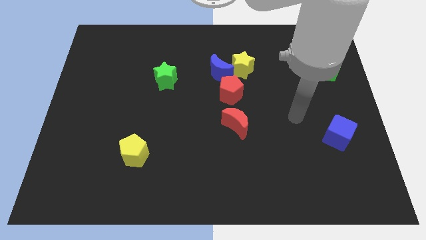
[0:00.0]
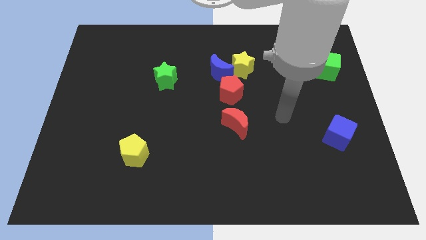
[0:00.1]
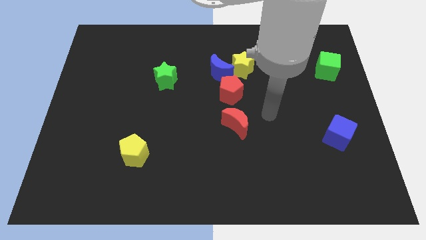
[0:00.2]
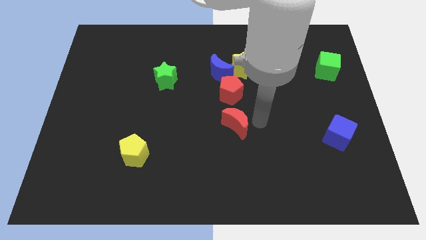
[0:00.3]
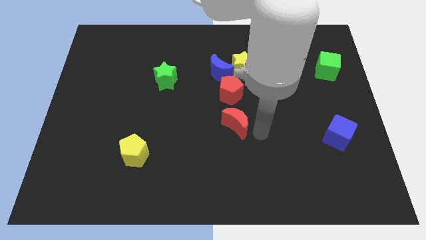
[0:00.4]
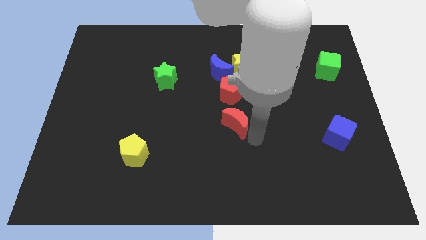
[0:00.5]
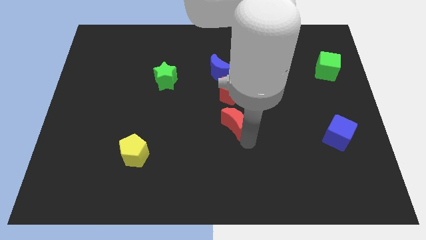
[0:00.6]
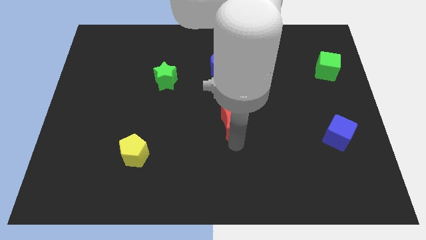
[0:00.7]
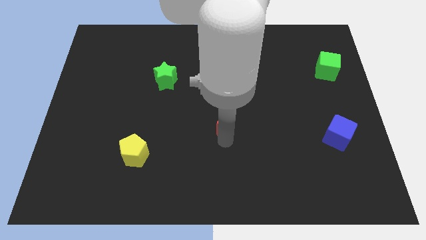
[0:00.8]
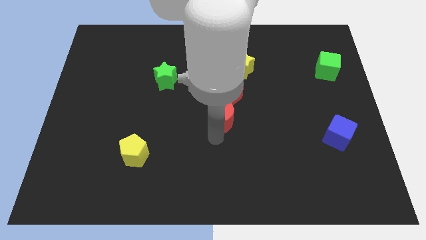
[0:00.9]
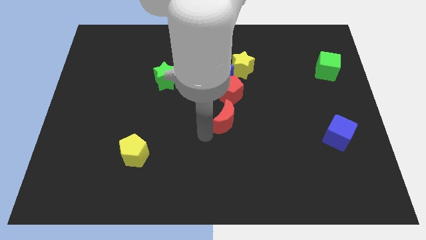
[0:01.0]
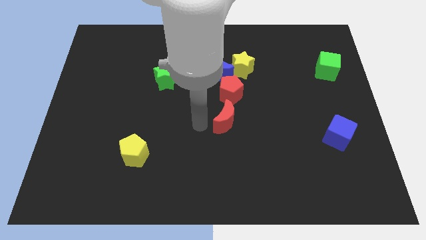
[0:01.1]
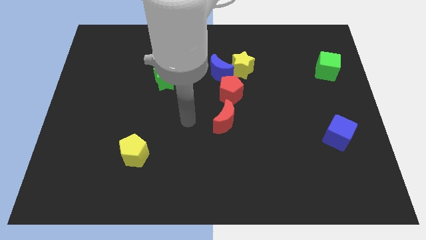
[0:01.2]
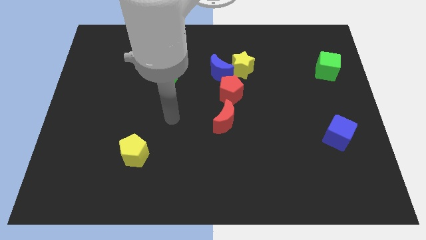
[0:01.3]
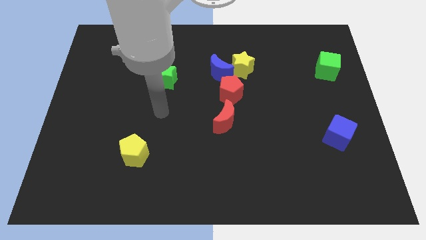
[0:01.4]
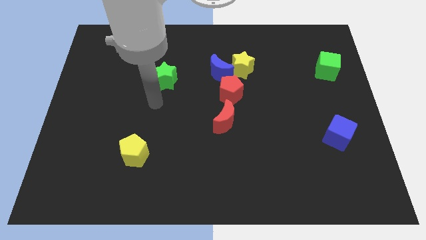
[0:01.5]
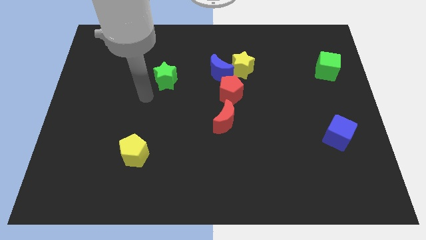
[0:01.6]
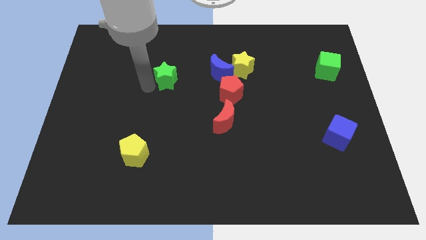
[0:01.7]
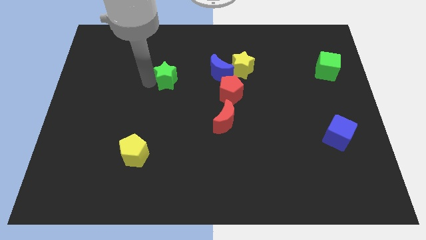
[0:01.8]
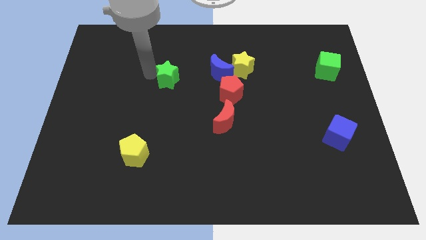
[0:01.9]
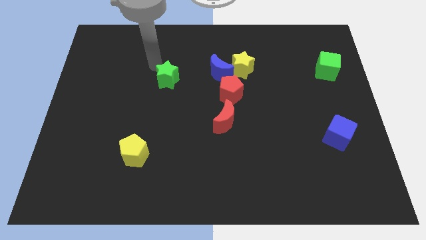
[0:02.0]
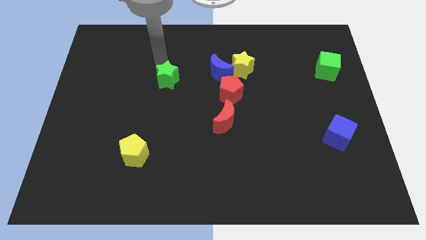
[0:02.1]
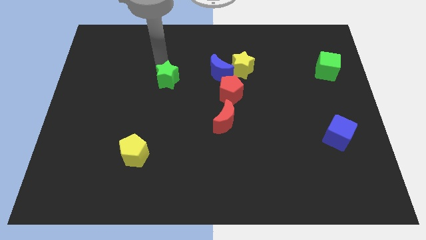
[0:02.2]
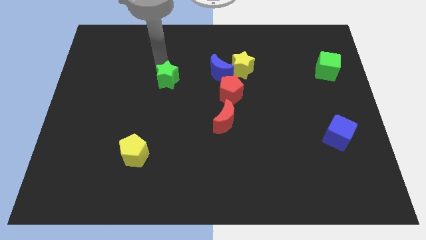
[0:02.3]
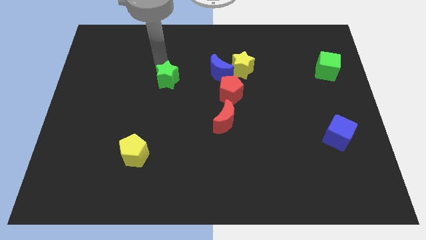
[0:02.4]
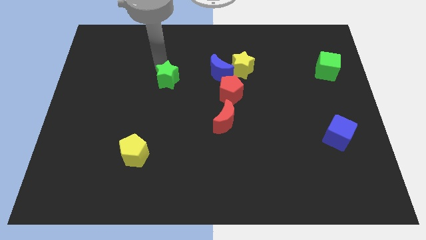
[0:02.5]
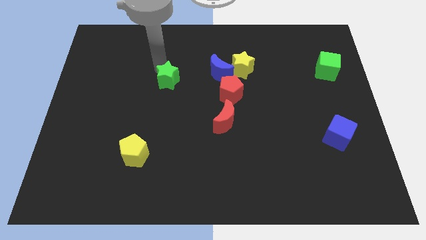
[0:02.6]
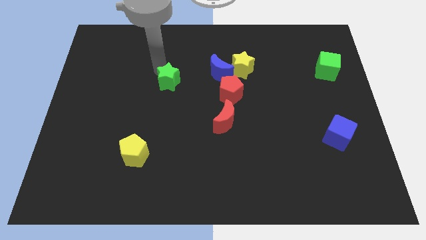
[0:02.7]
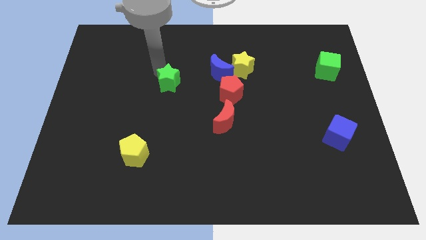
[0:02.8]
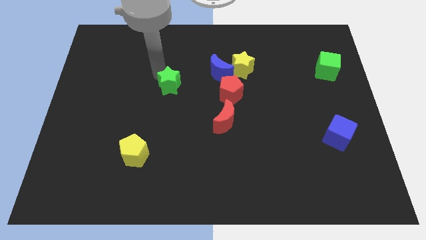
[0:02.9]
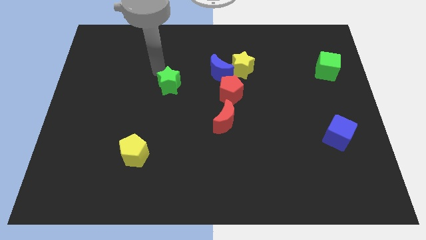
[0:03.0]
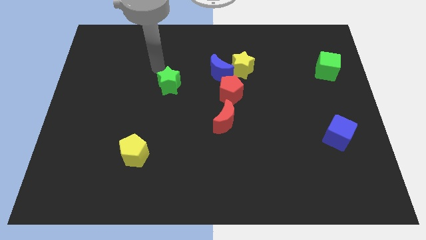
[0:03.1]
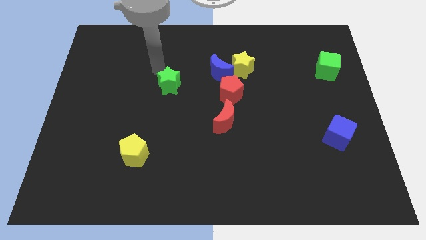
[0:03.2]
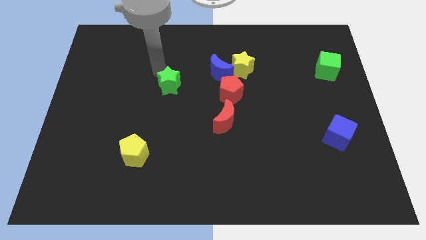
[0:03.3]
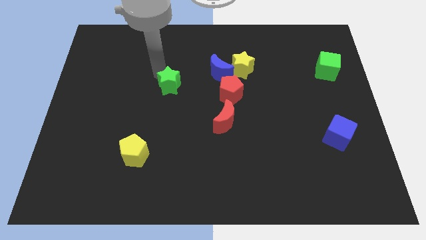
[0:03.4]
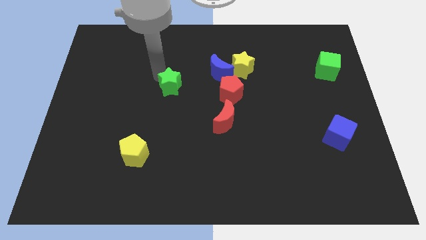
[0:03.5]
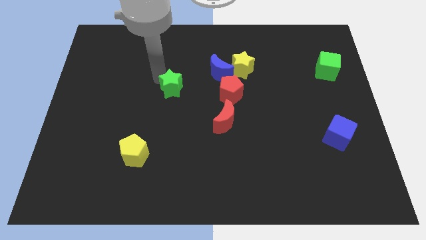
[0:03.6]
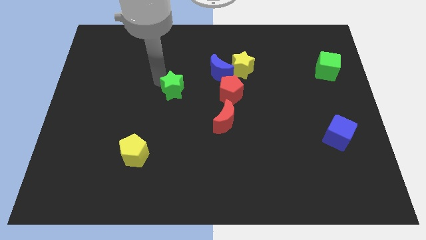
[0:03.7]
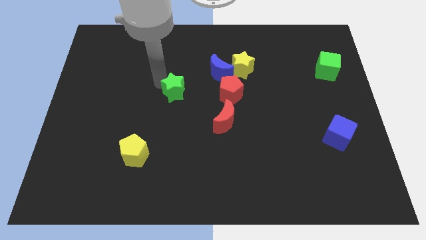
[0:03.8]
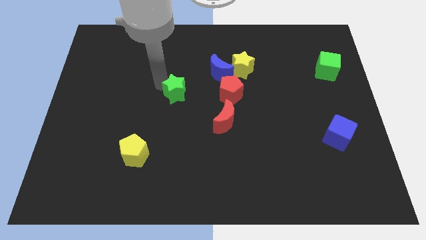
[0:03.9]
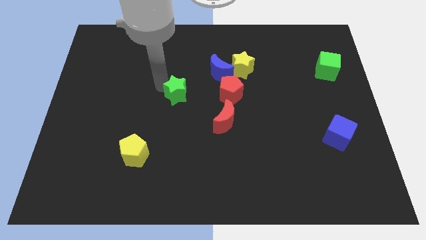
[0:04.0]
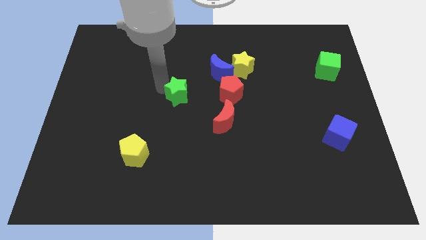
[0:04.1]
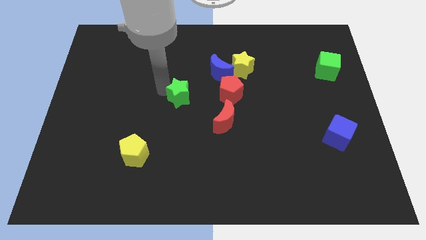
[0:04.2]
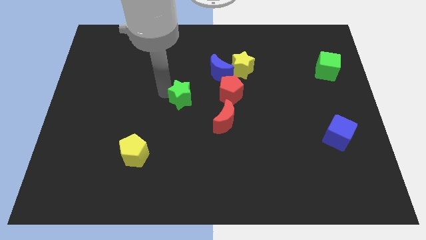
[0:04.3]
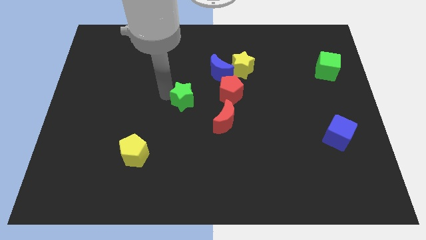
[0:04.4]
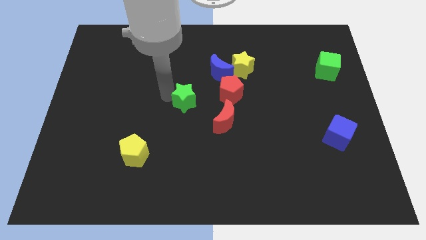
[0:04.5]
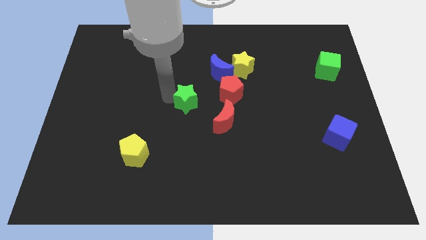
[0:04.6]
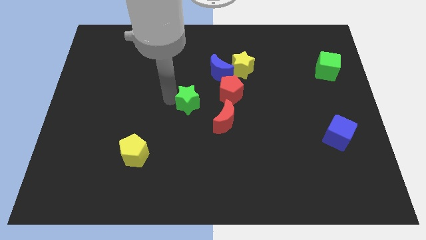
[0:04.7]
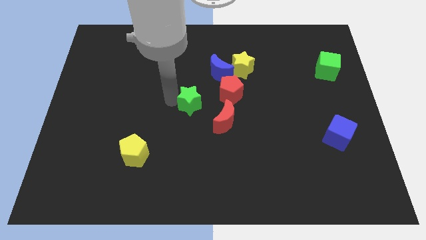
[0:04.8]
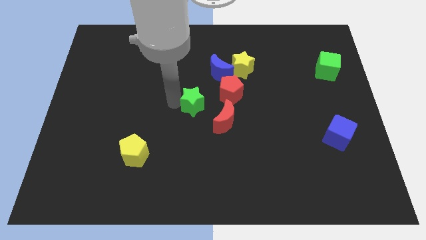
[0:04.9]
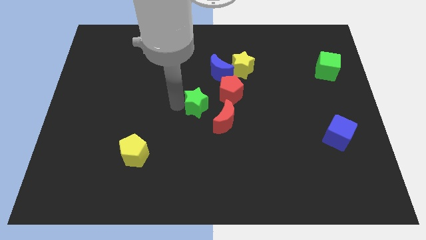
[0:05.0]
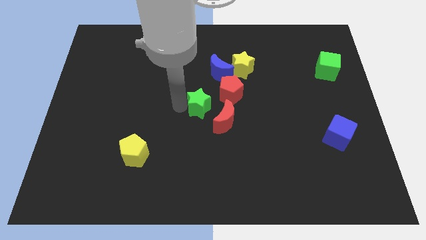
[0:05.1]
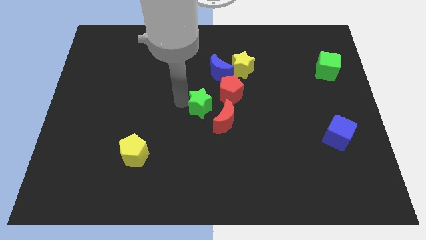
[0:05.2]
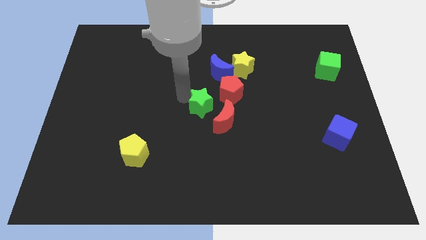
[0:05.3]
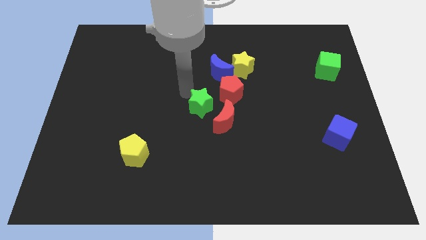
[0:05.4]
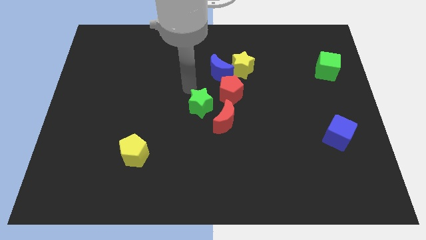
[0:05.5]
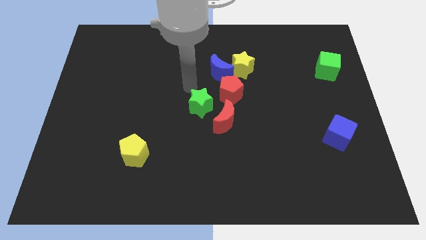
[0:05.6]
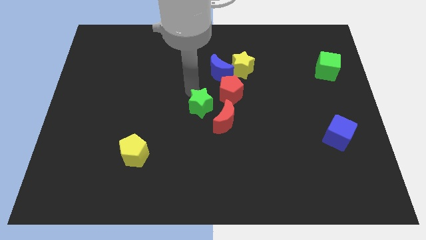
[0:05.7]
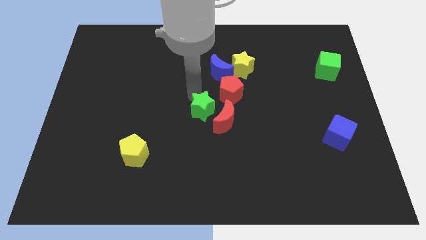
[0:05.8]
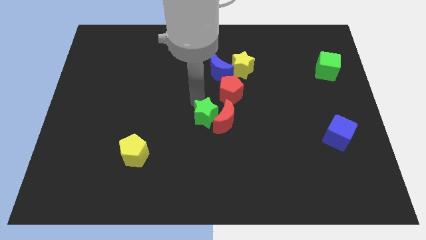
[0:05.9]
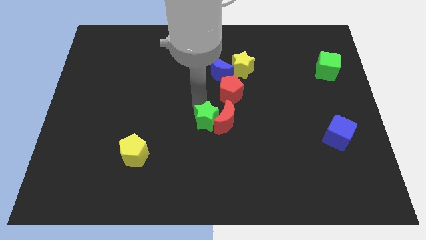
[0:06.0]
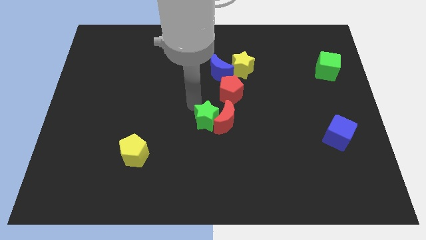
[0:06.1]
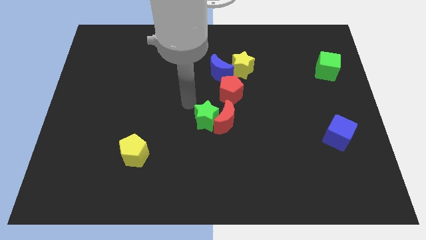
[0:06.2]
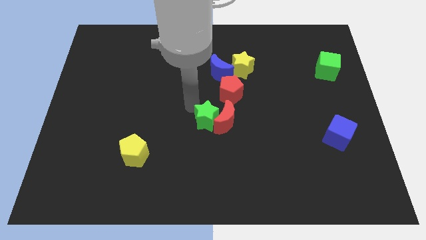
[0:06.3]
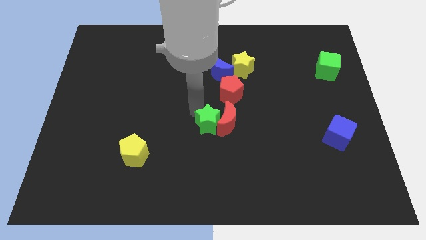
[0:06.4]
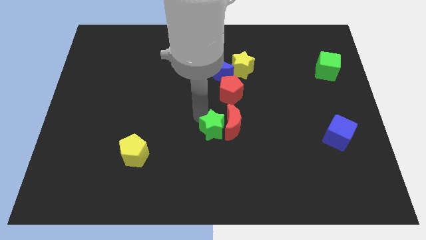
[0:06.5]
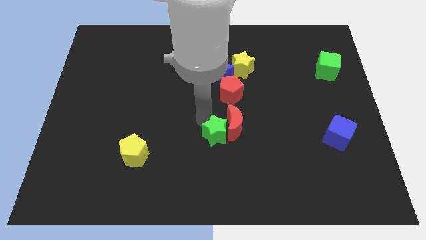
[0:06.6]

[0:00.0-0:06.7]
push the green star diagonally down and right

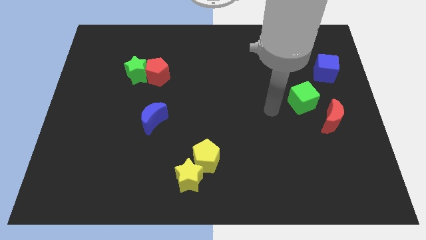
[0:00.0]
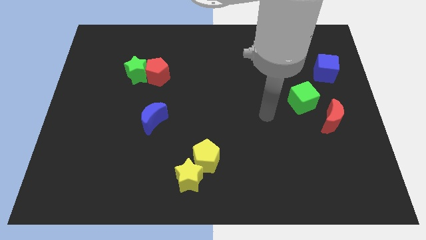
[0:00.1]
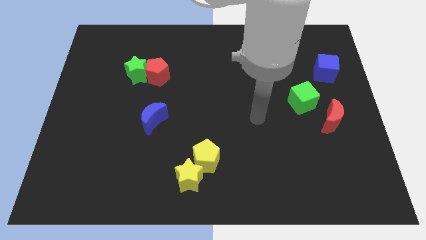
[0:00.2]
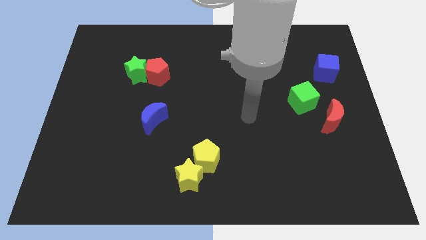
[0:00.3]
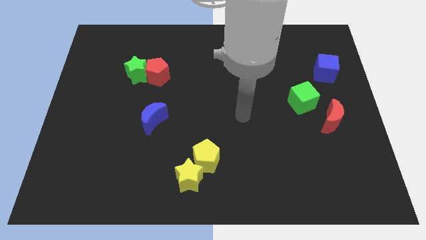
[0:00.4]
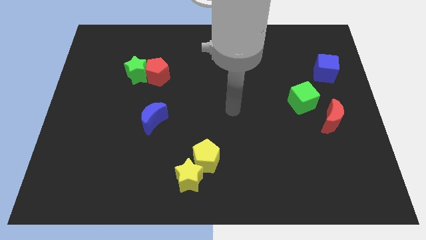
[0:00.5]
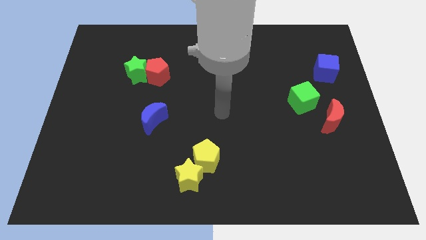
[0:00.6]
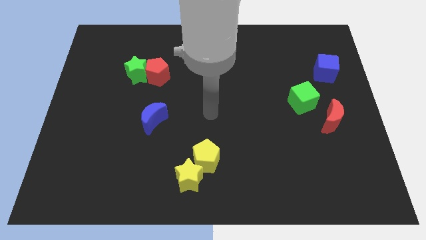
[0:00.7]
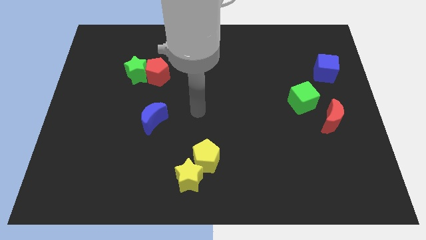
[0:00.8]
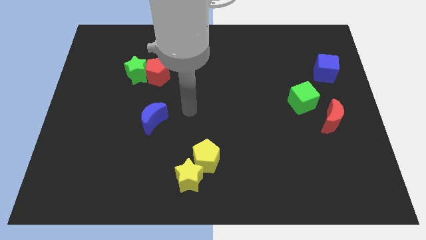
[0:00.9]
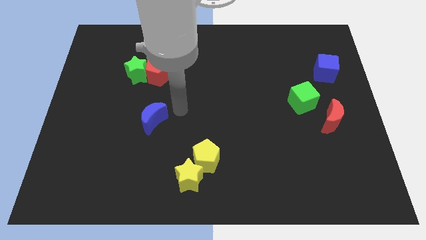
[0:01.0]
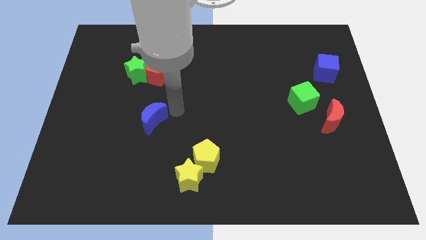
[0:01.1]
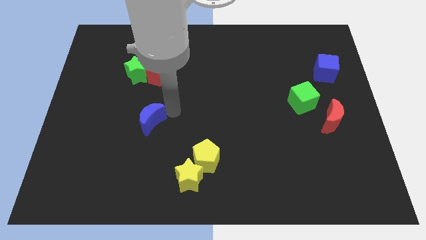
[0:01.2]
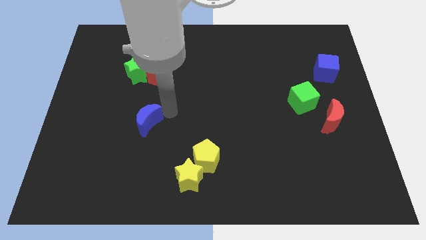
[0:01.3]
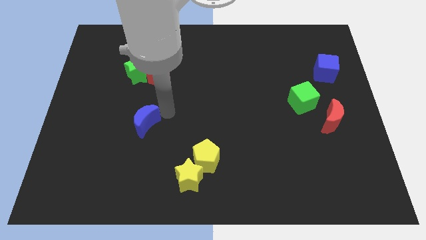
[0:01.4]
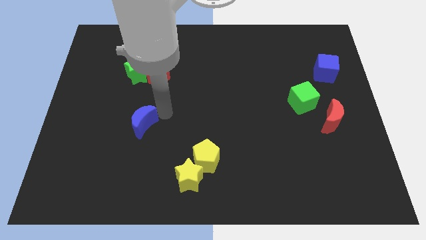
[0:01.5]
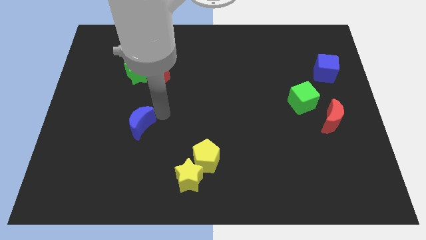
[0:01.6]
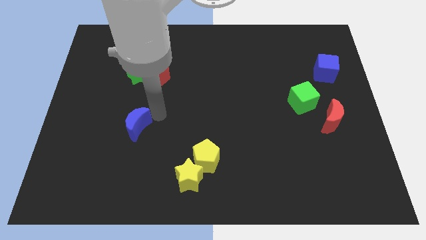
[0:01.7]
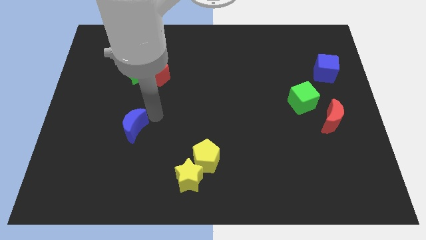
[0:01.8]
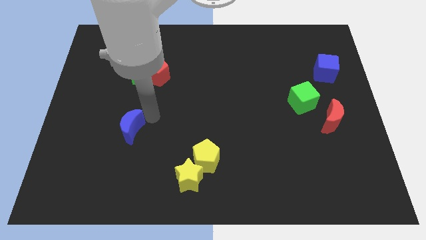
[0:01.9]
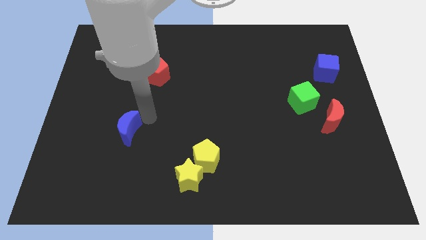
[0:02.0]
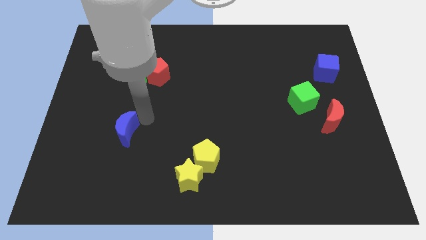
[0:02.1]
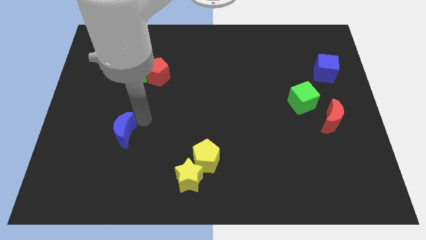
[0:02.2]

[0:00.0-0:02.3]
slide the blue moon a little bit diagonally down and to the left
